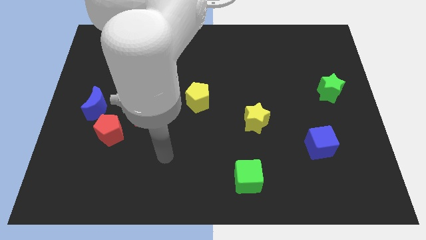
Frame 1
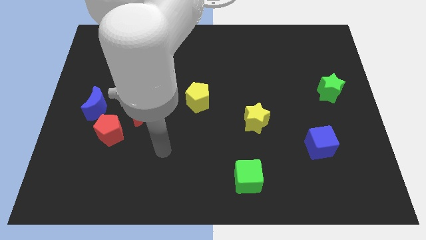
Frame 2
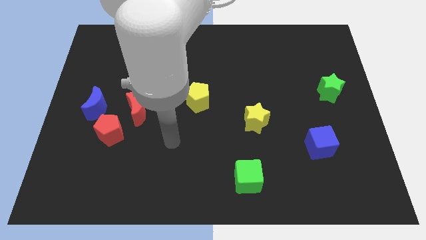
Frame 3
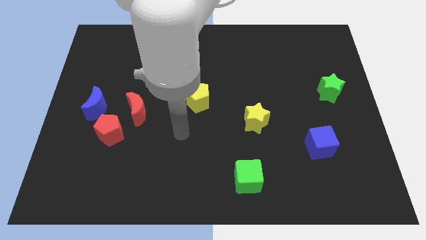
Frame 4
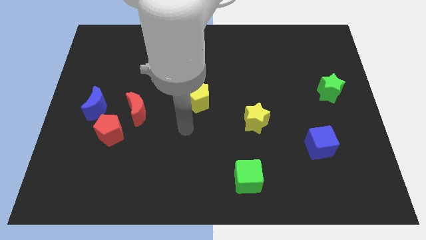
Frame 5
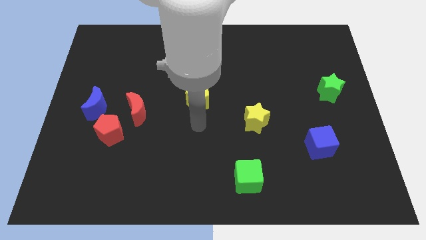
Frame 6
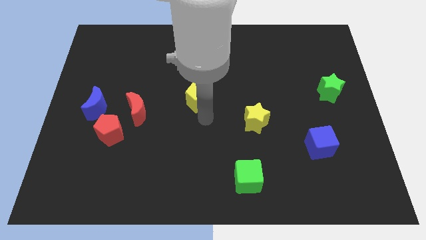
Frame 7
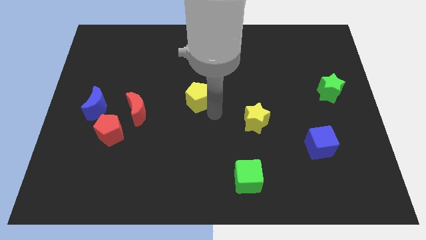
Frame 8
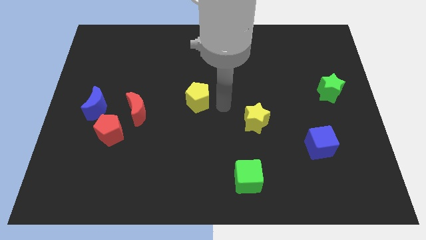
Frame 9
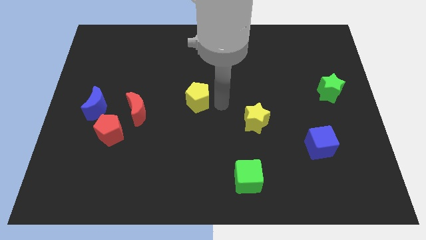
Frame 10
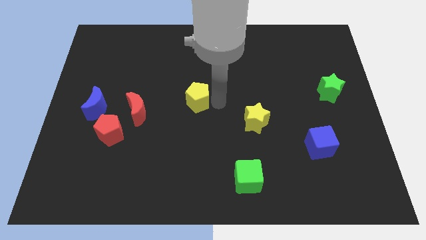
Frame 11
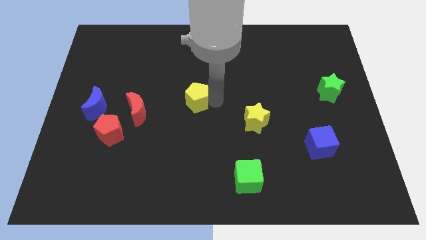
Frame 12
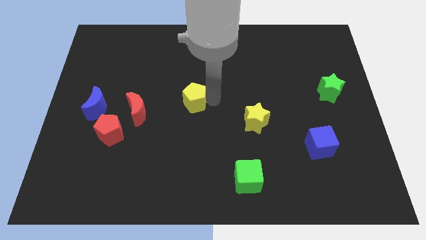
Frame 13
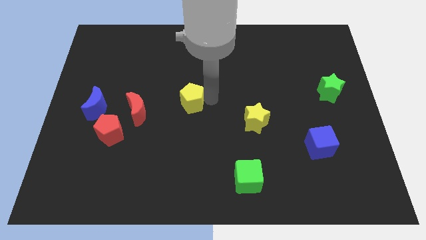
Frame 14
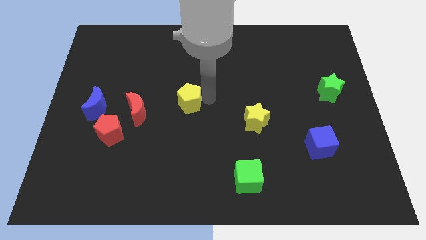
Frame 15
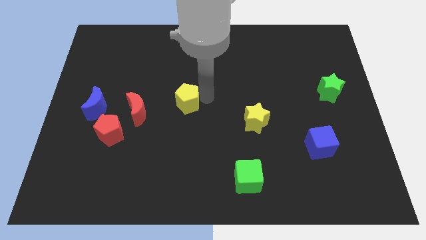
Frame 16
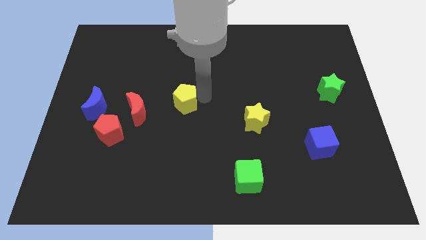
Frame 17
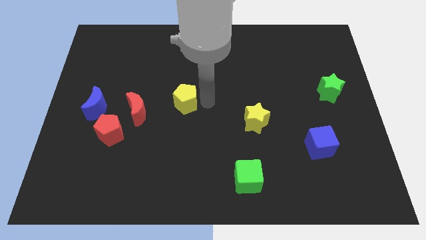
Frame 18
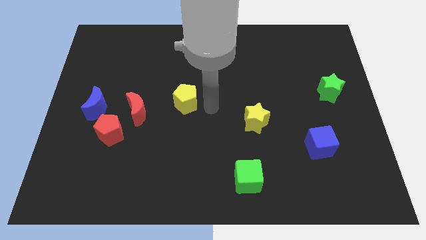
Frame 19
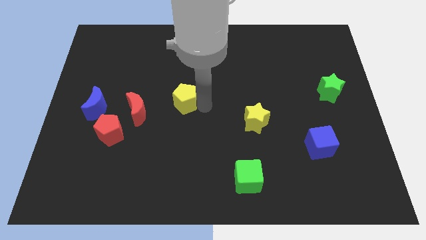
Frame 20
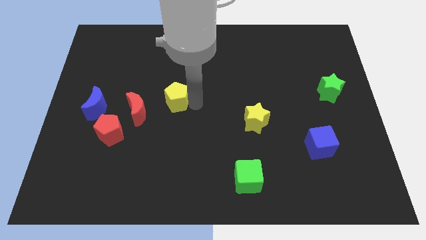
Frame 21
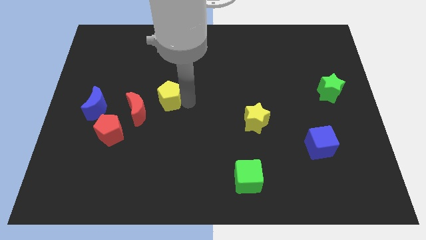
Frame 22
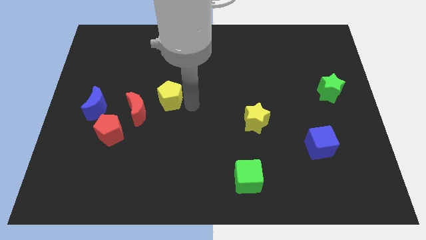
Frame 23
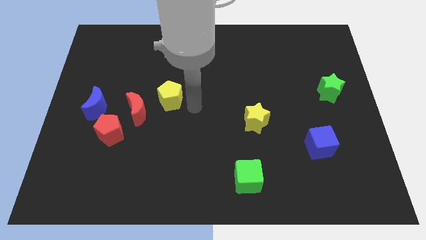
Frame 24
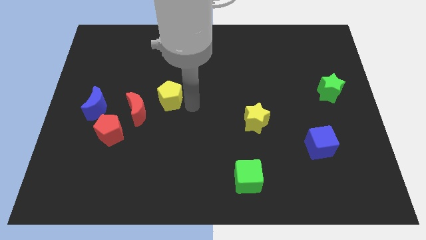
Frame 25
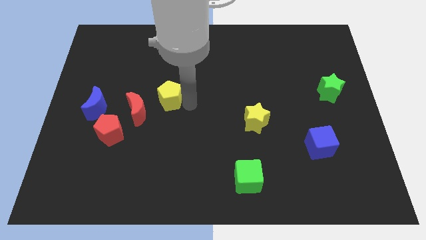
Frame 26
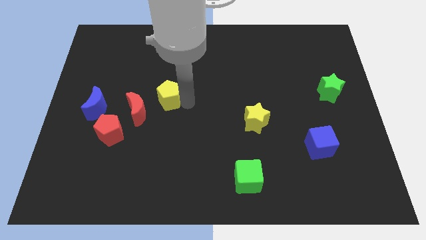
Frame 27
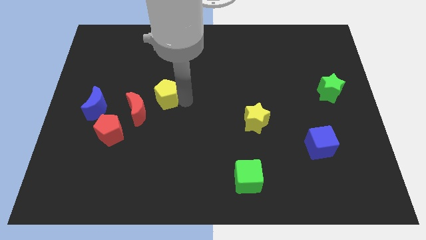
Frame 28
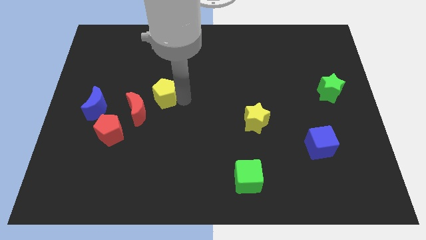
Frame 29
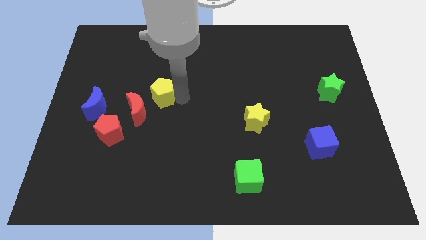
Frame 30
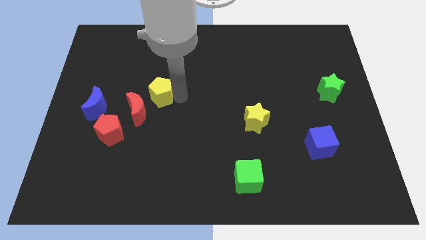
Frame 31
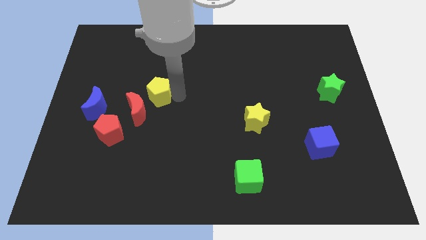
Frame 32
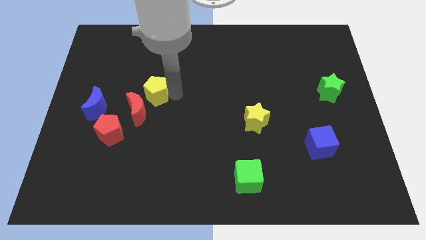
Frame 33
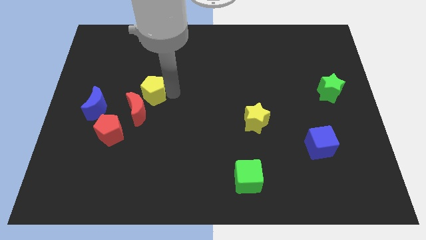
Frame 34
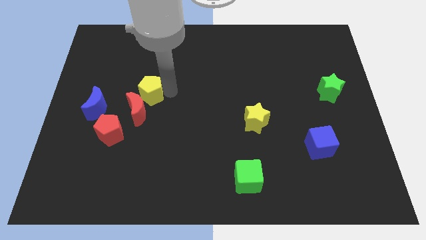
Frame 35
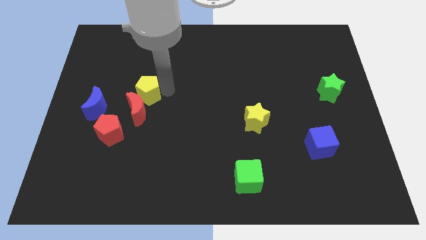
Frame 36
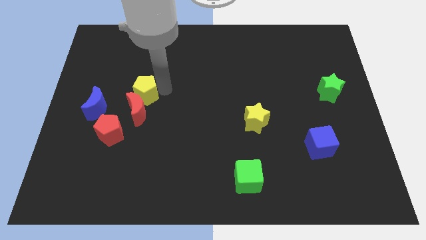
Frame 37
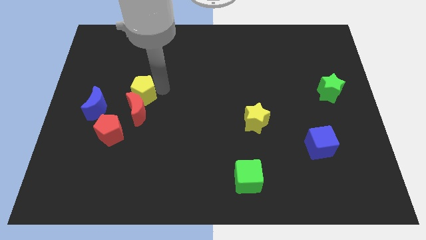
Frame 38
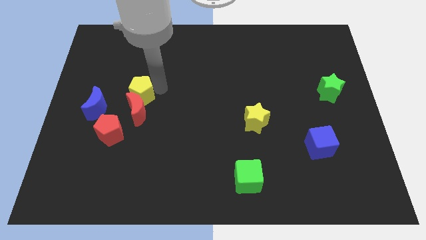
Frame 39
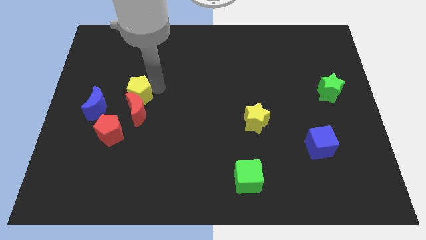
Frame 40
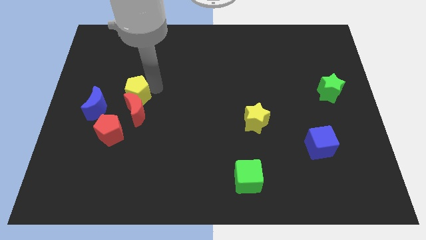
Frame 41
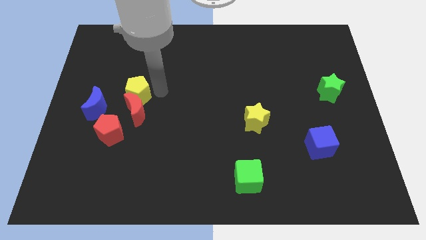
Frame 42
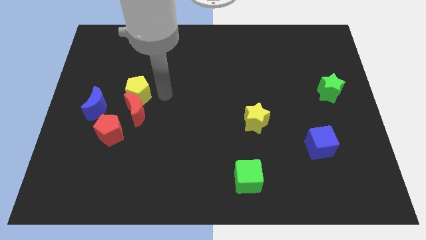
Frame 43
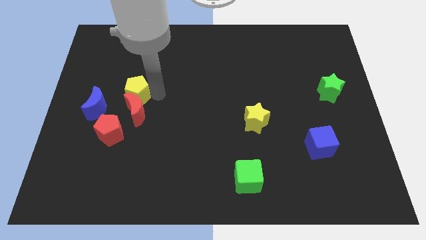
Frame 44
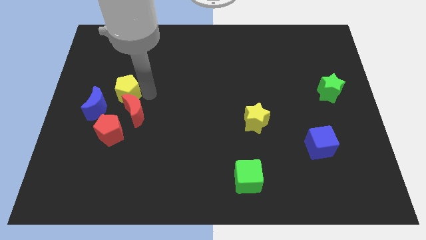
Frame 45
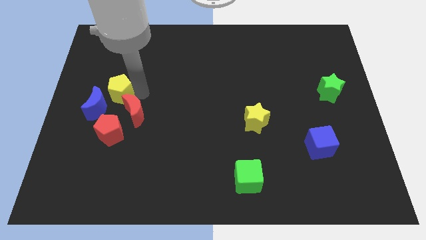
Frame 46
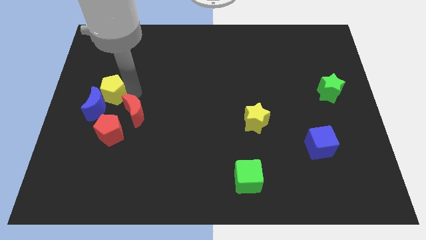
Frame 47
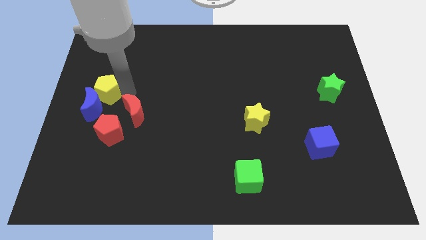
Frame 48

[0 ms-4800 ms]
move the yellow pentagon to the left side of the board

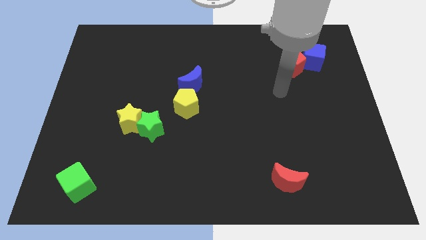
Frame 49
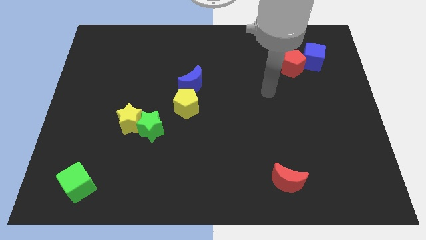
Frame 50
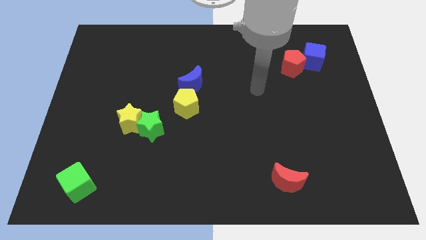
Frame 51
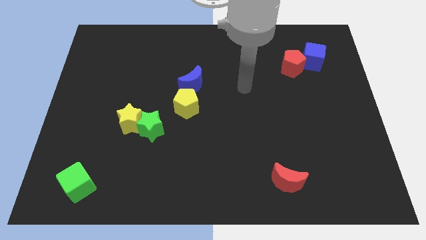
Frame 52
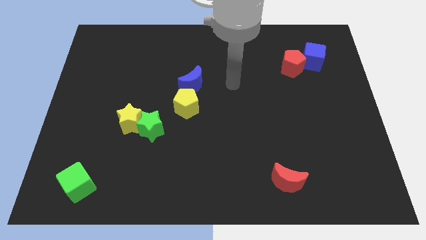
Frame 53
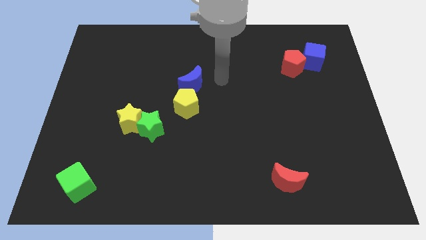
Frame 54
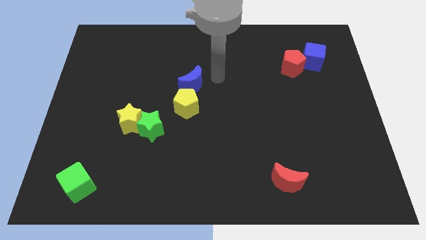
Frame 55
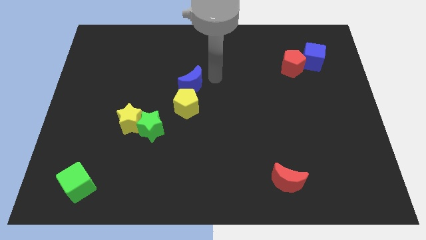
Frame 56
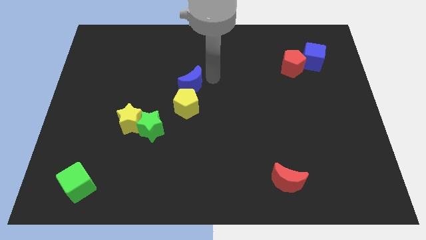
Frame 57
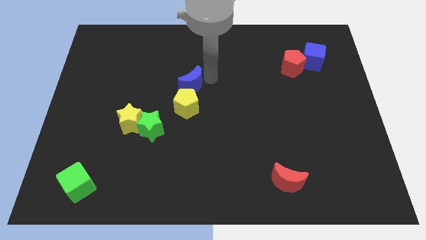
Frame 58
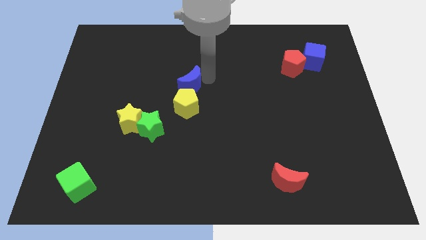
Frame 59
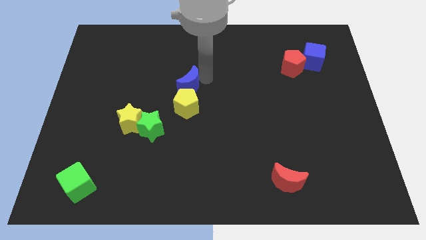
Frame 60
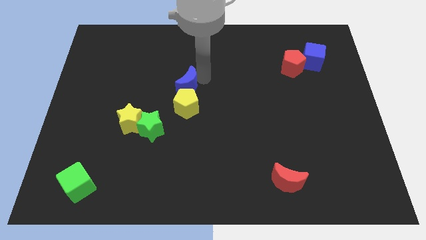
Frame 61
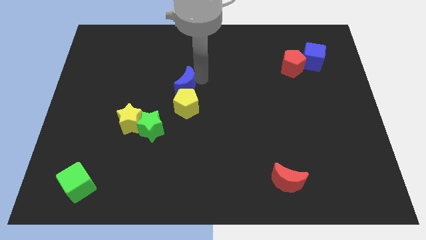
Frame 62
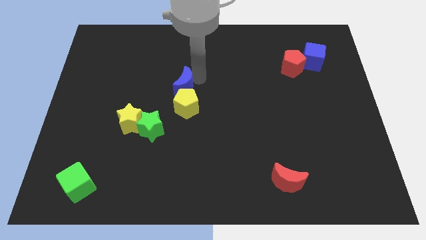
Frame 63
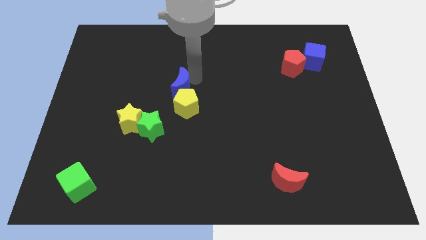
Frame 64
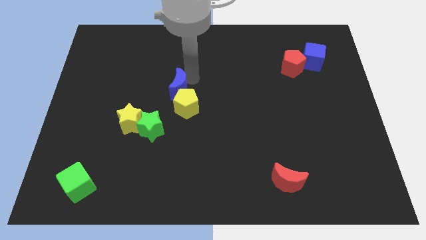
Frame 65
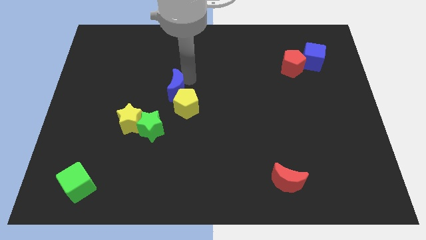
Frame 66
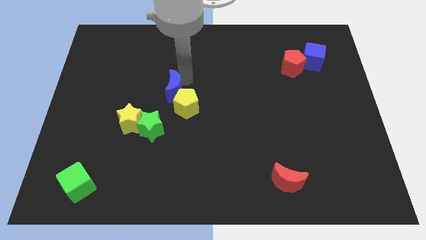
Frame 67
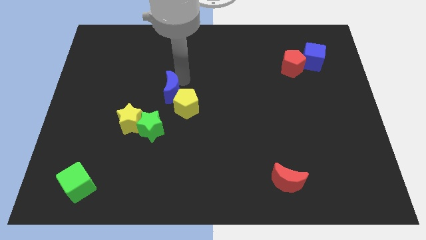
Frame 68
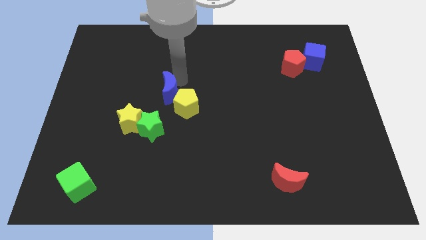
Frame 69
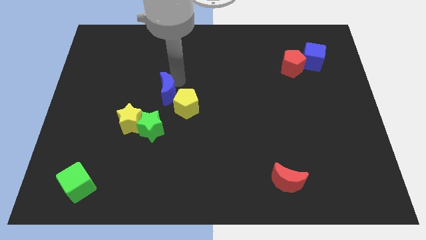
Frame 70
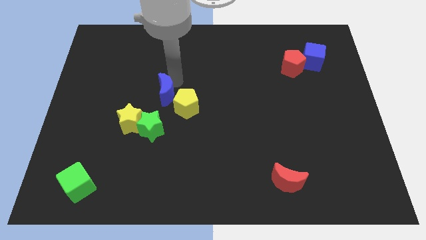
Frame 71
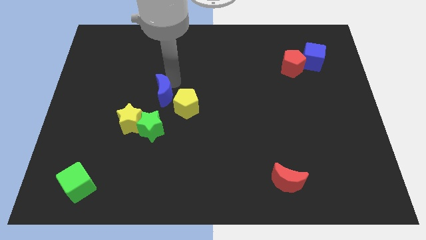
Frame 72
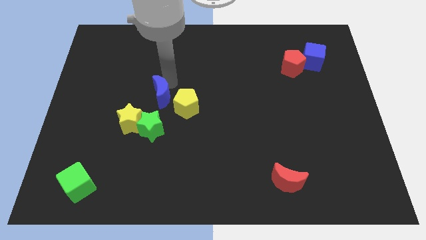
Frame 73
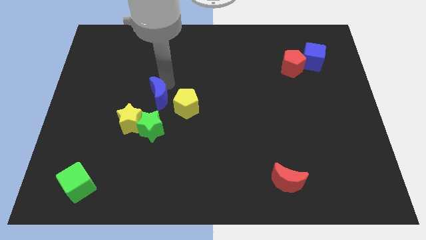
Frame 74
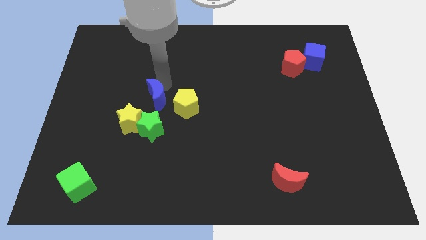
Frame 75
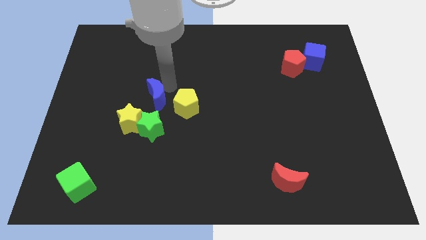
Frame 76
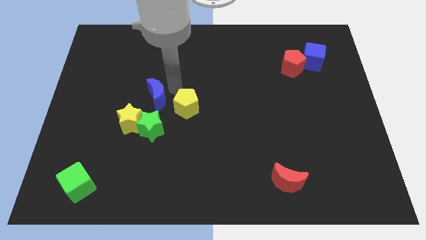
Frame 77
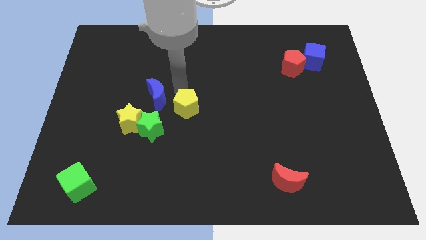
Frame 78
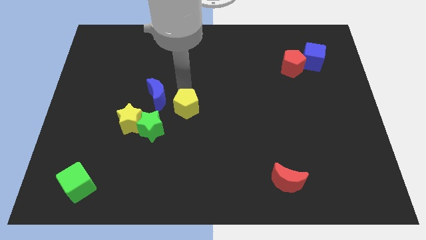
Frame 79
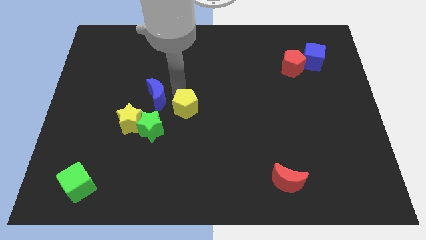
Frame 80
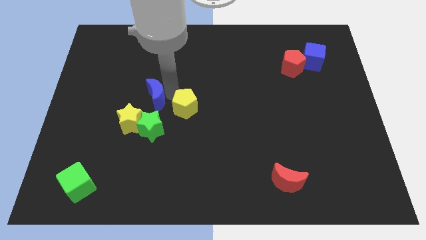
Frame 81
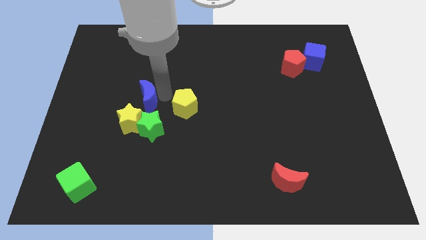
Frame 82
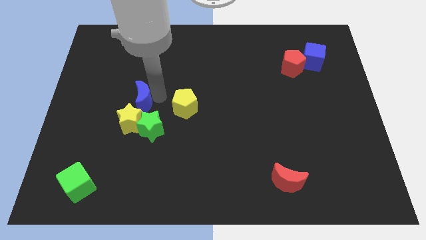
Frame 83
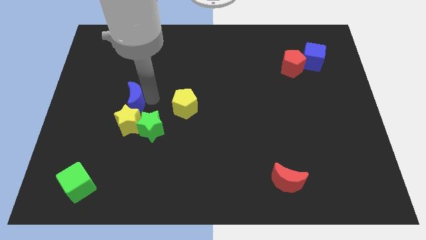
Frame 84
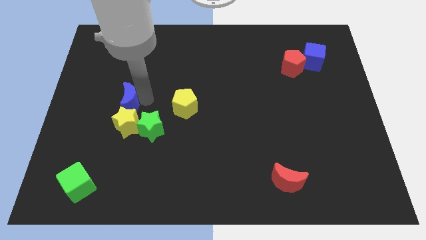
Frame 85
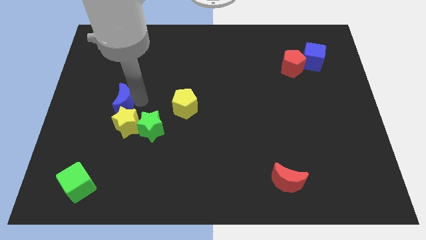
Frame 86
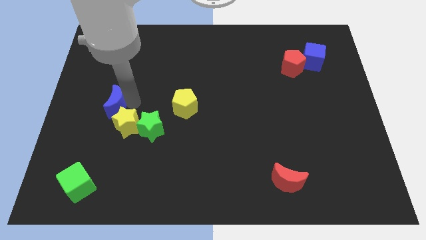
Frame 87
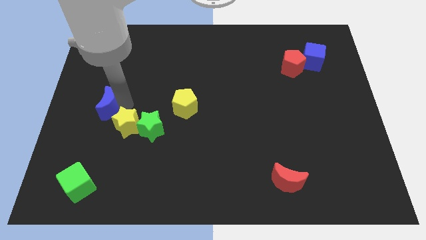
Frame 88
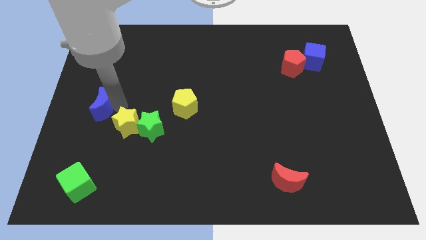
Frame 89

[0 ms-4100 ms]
push the blue moon to the left side
